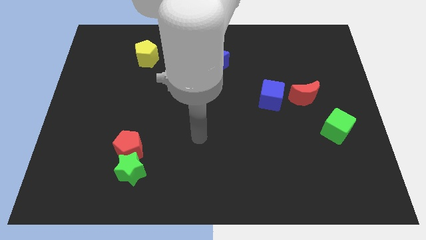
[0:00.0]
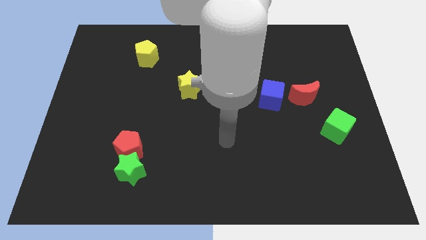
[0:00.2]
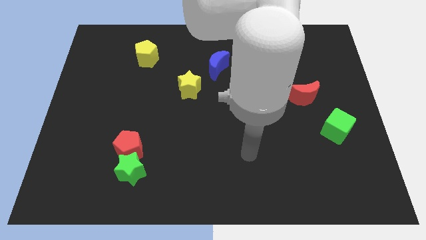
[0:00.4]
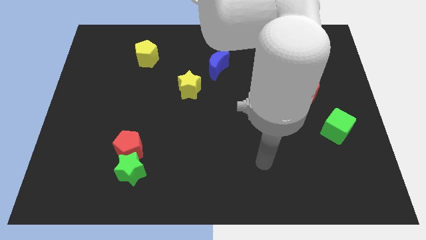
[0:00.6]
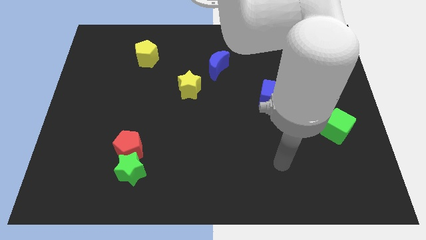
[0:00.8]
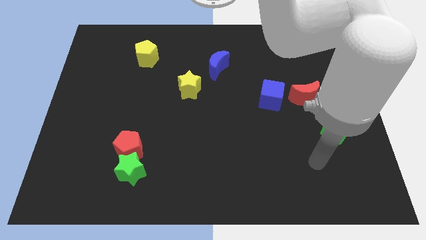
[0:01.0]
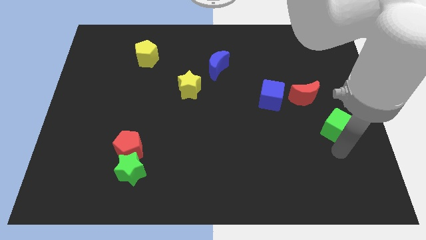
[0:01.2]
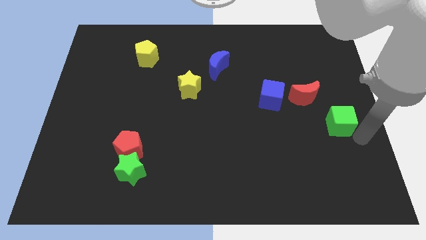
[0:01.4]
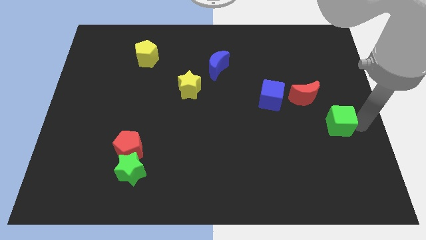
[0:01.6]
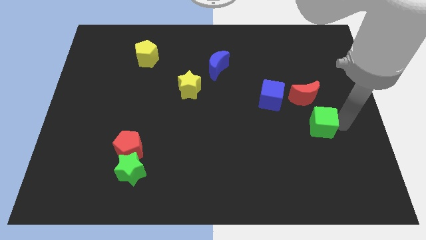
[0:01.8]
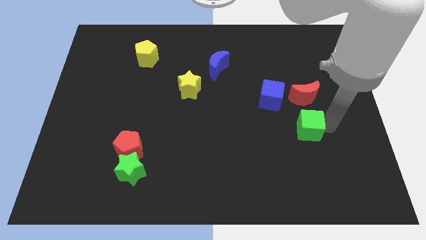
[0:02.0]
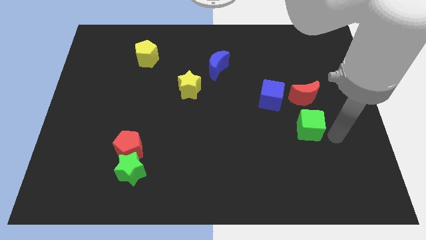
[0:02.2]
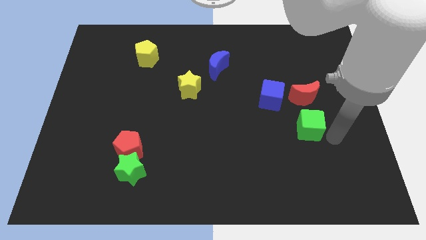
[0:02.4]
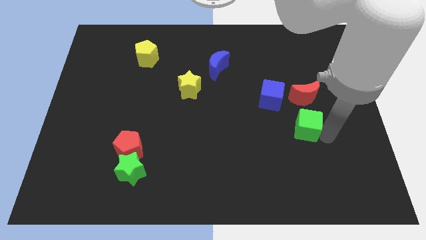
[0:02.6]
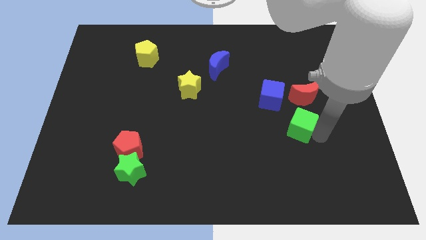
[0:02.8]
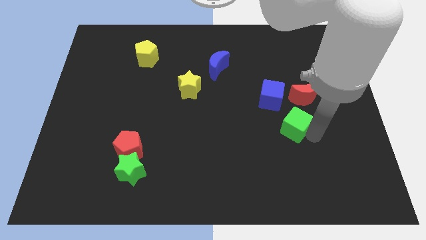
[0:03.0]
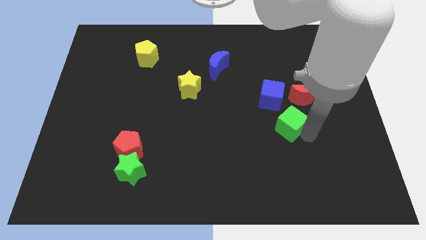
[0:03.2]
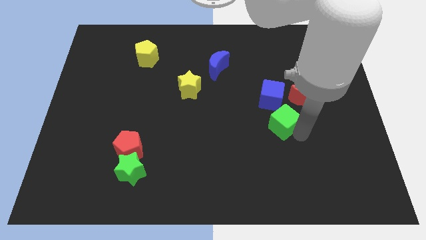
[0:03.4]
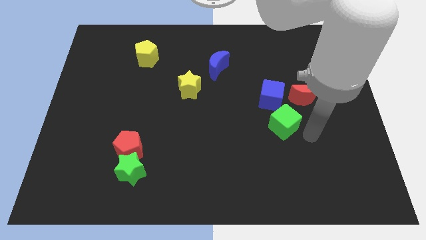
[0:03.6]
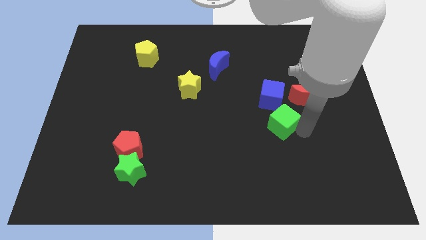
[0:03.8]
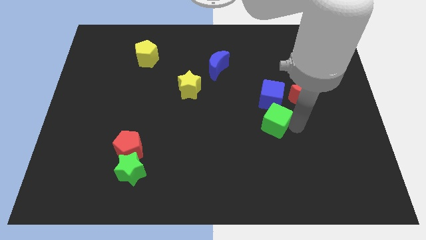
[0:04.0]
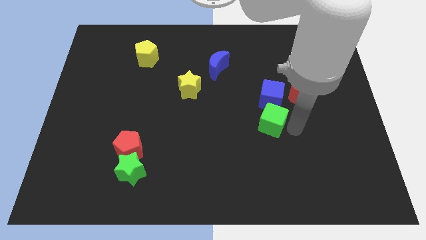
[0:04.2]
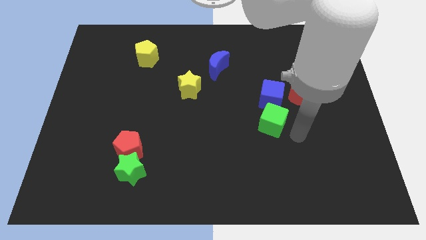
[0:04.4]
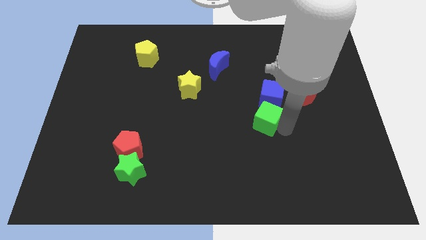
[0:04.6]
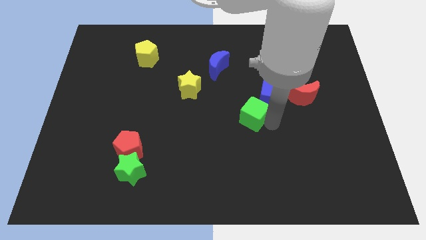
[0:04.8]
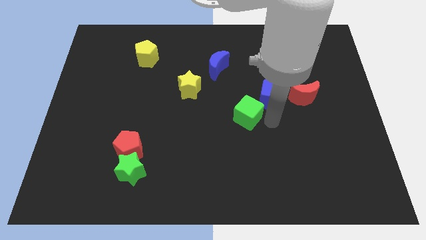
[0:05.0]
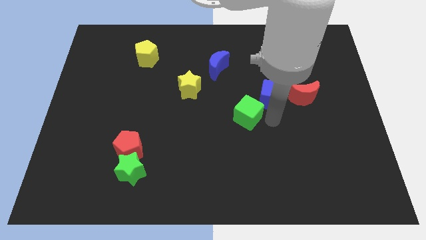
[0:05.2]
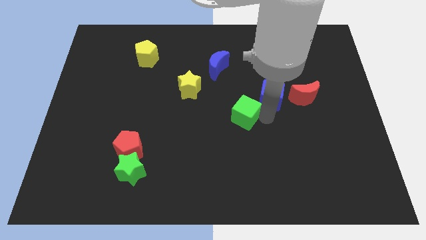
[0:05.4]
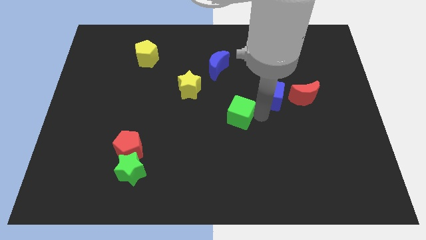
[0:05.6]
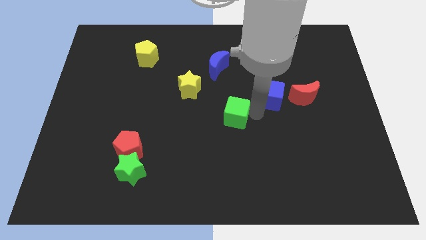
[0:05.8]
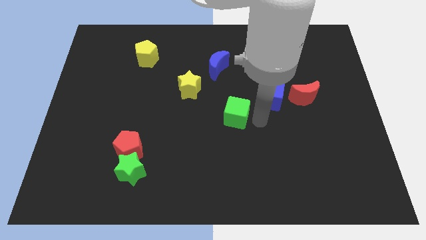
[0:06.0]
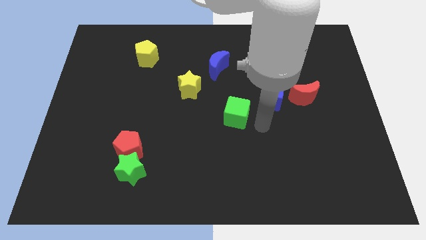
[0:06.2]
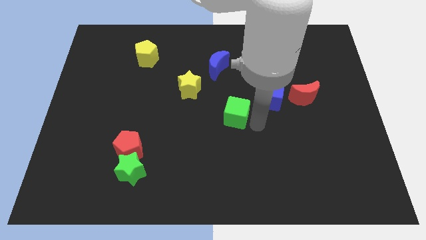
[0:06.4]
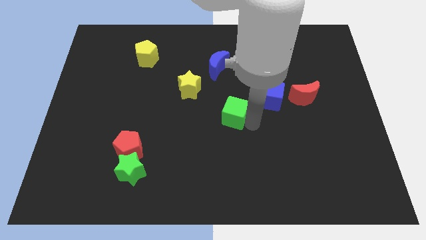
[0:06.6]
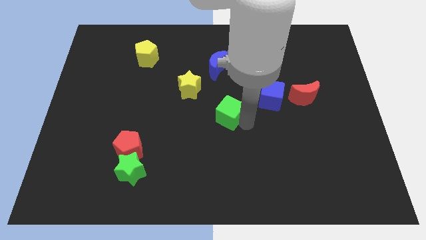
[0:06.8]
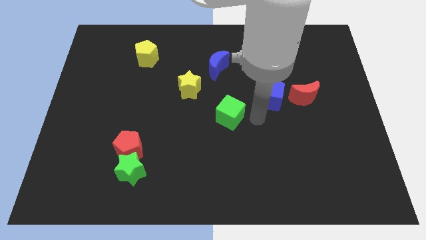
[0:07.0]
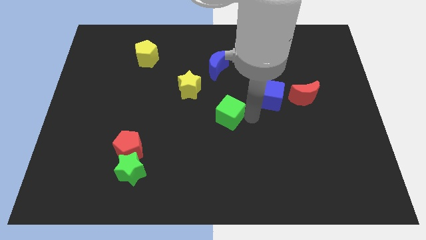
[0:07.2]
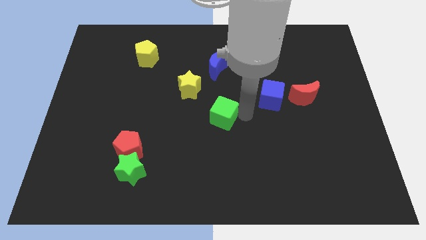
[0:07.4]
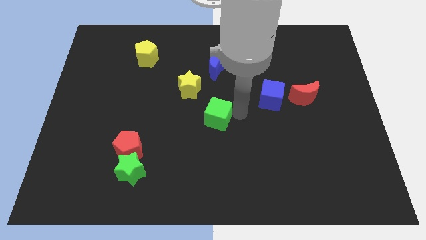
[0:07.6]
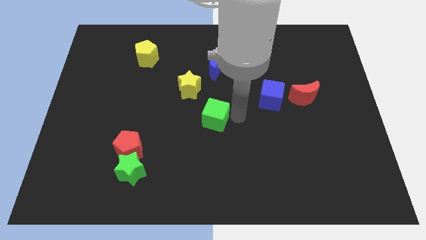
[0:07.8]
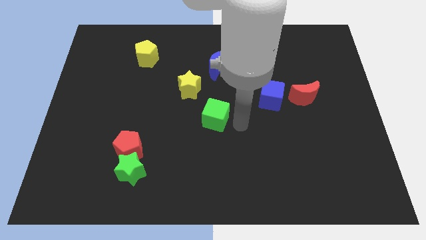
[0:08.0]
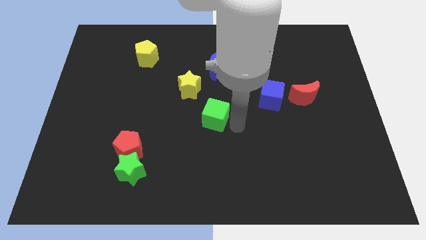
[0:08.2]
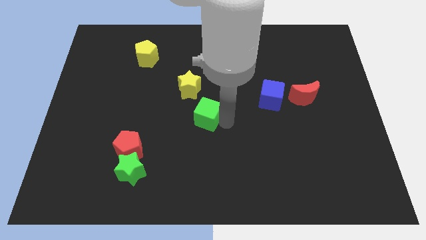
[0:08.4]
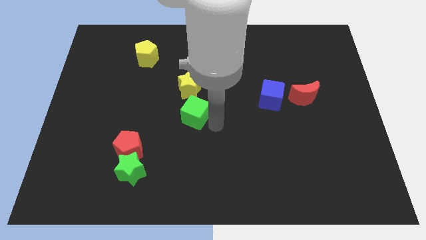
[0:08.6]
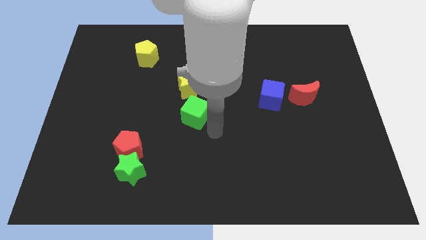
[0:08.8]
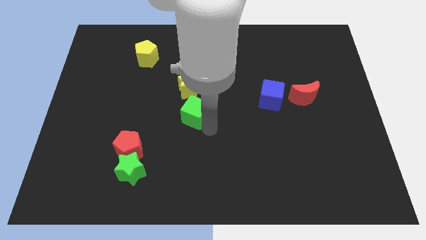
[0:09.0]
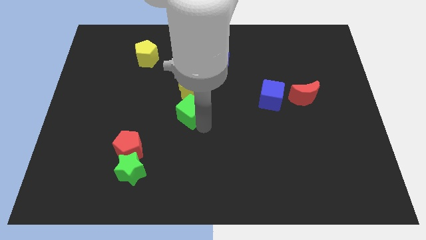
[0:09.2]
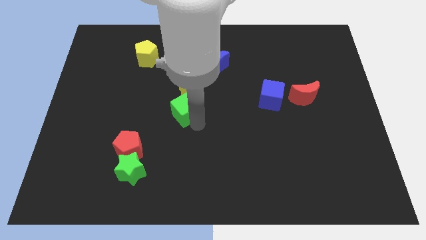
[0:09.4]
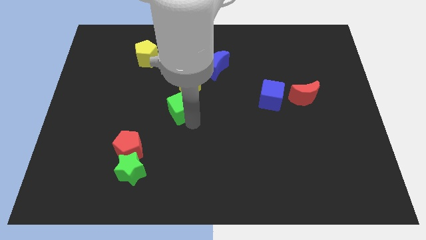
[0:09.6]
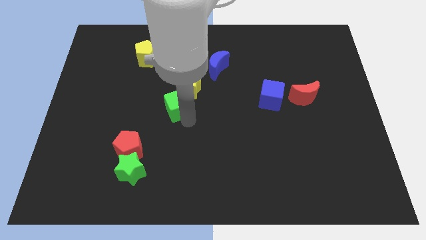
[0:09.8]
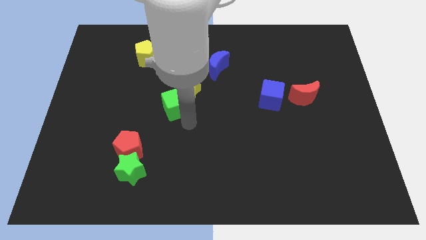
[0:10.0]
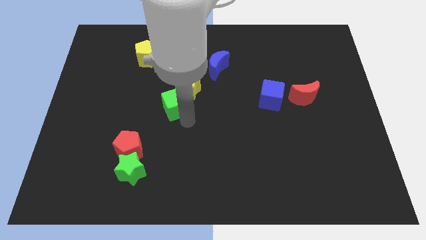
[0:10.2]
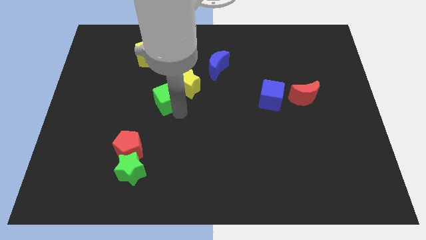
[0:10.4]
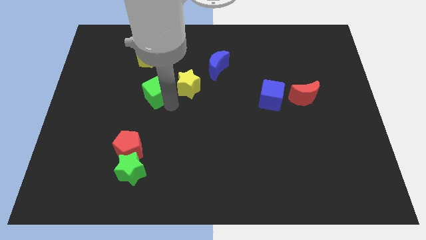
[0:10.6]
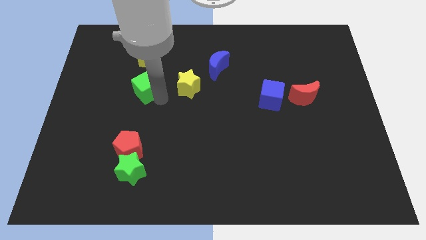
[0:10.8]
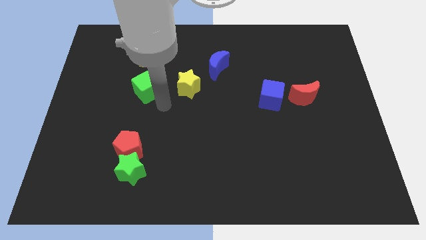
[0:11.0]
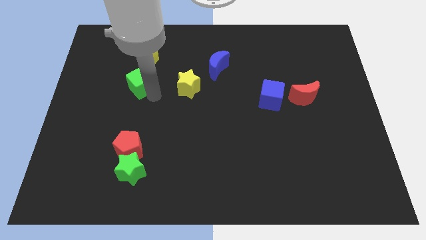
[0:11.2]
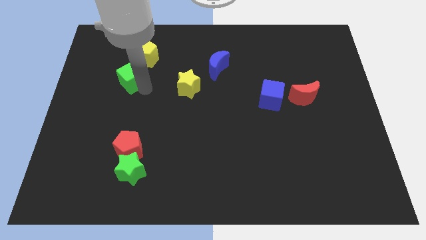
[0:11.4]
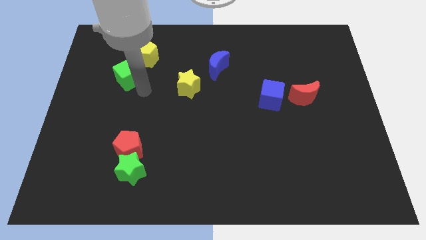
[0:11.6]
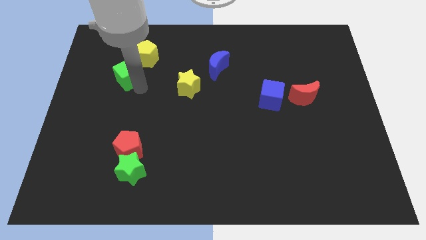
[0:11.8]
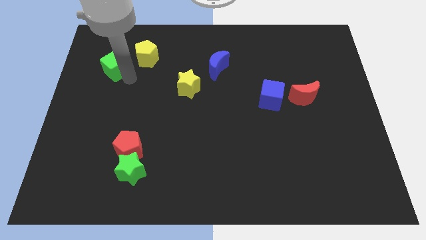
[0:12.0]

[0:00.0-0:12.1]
slide the green cube to the left of the yellow pentagon

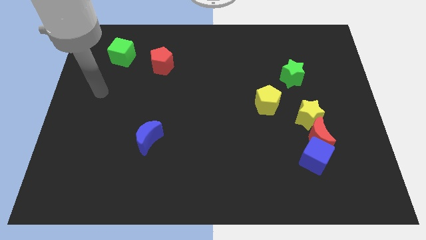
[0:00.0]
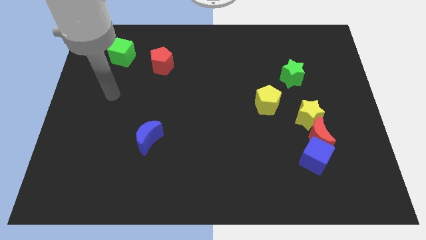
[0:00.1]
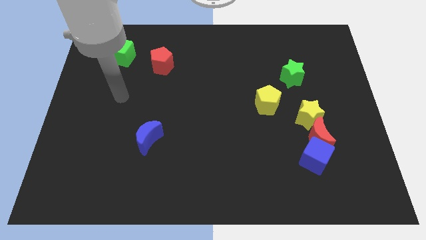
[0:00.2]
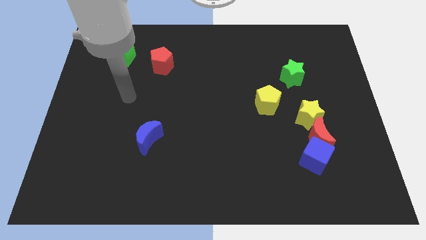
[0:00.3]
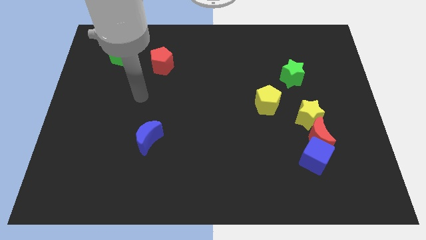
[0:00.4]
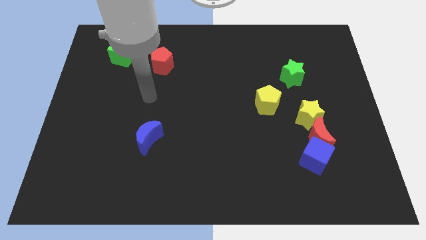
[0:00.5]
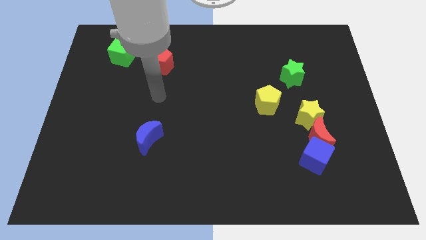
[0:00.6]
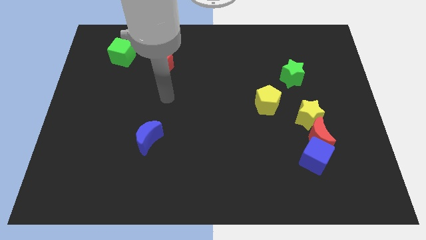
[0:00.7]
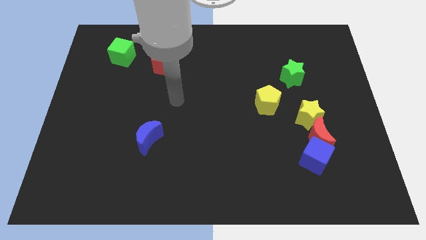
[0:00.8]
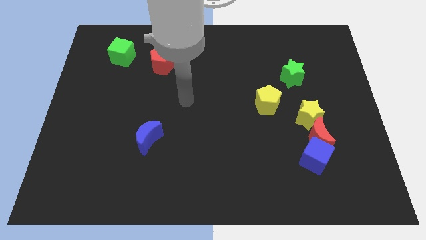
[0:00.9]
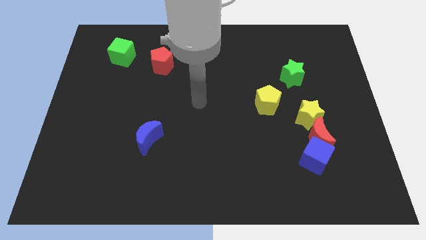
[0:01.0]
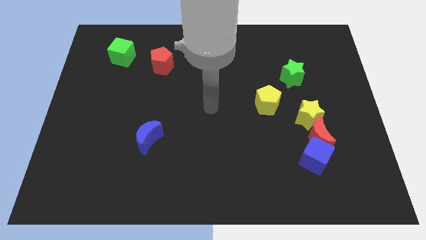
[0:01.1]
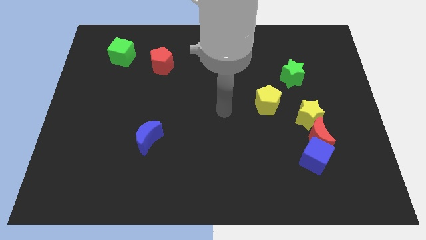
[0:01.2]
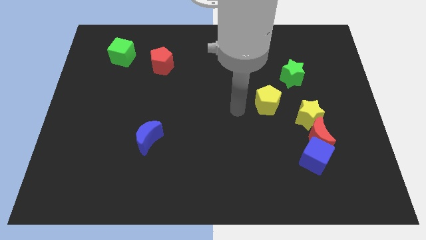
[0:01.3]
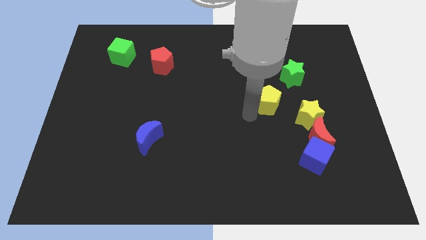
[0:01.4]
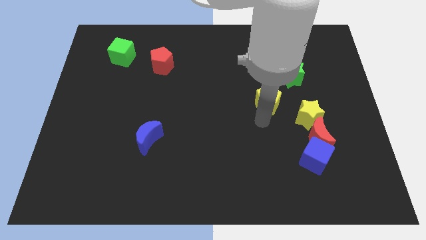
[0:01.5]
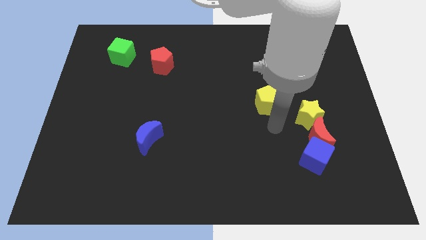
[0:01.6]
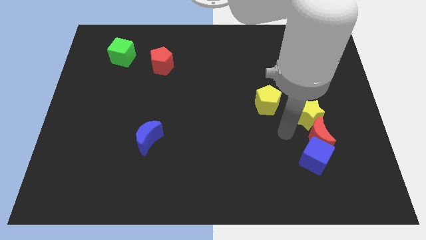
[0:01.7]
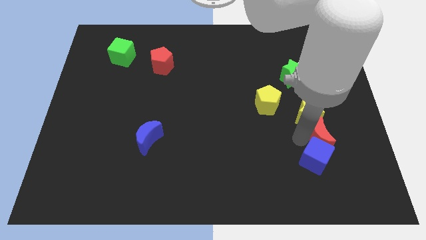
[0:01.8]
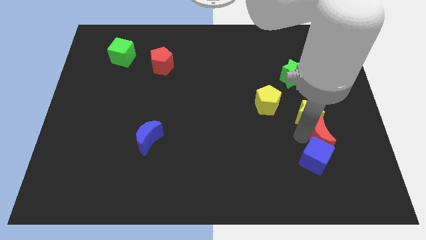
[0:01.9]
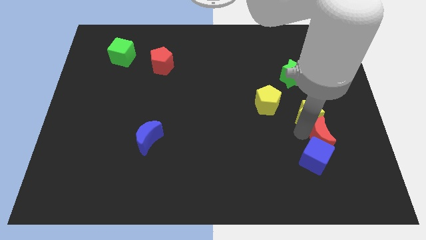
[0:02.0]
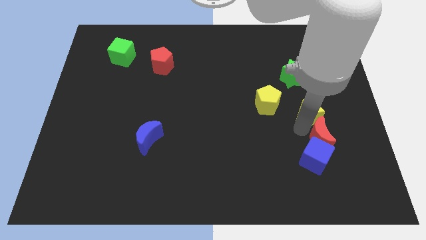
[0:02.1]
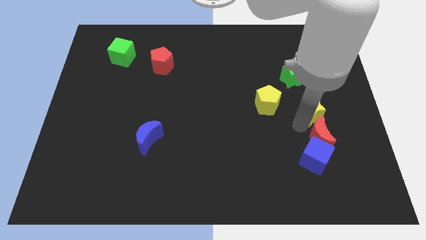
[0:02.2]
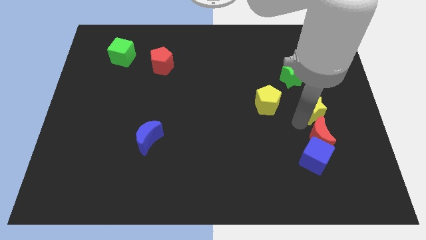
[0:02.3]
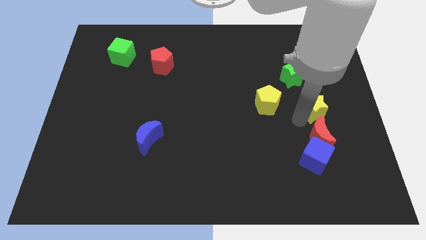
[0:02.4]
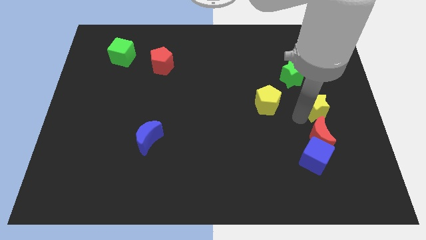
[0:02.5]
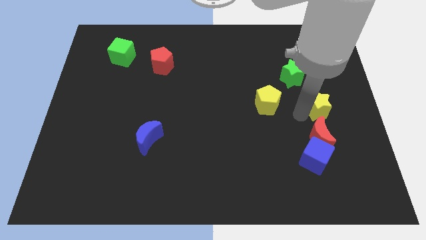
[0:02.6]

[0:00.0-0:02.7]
put the yellow star to the bottom right side of the green star
